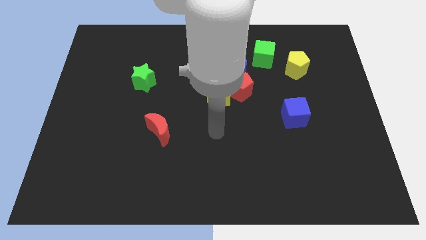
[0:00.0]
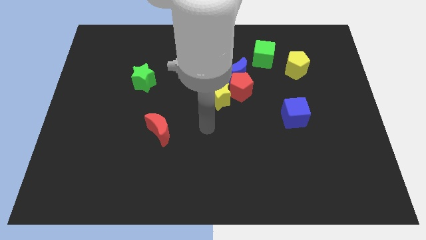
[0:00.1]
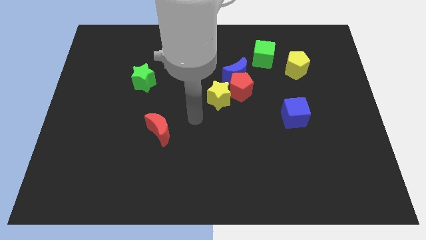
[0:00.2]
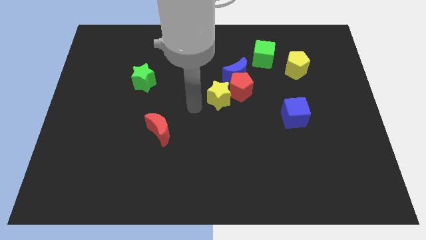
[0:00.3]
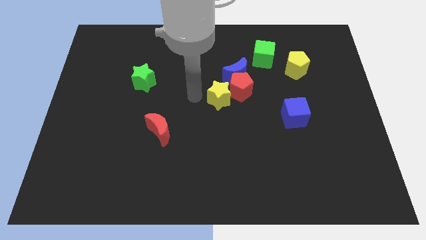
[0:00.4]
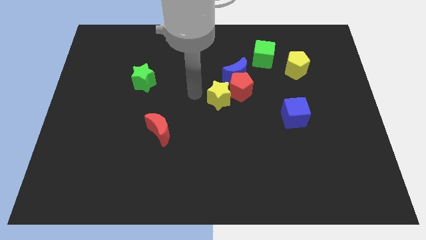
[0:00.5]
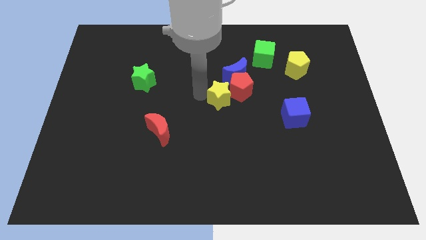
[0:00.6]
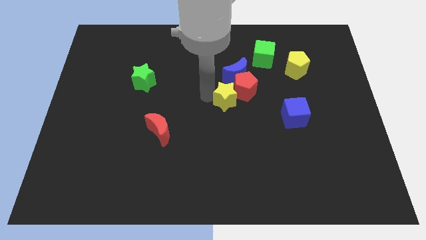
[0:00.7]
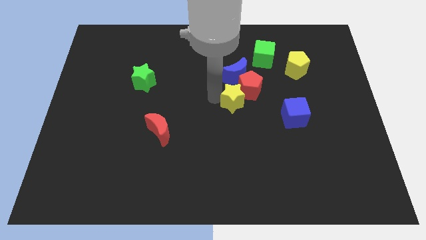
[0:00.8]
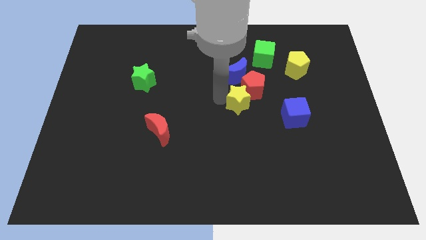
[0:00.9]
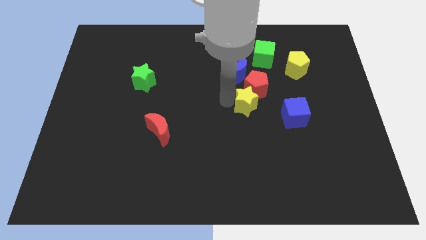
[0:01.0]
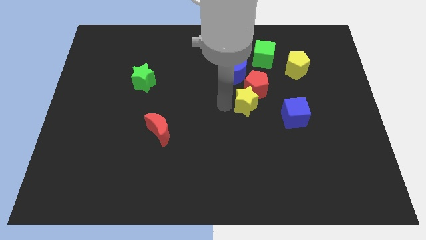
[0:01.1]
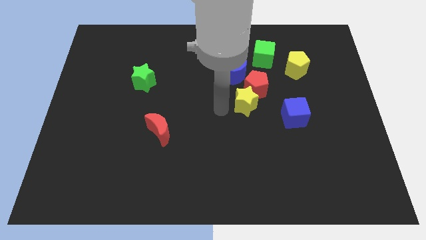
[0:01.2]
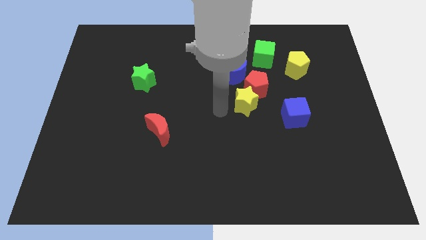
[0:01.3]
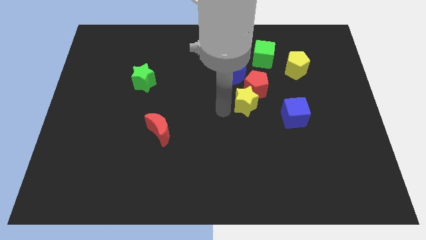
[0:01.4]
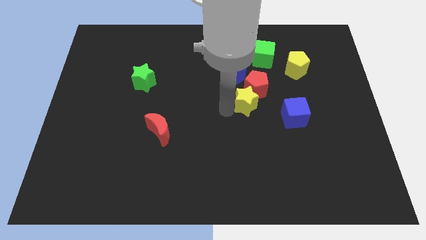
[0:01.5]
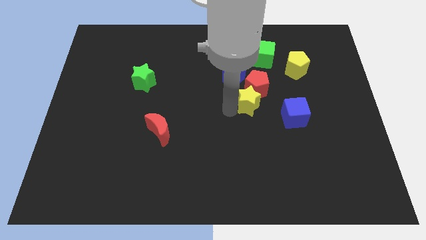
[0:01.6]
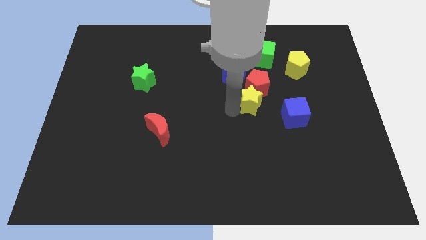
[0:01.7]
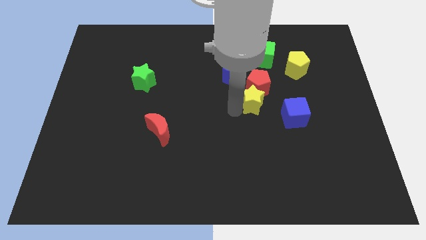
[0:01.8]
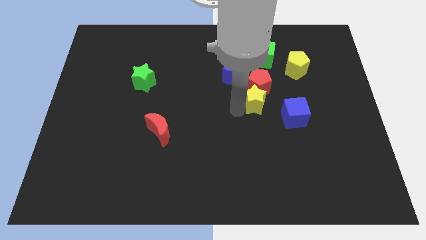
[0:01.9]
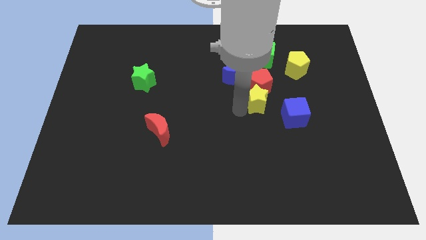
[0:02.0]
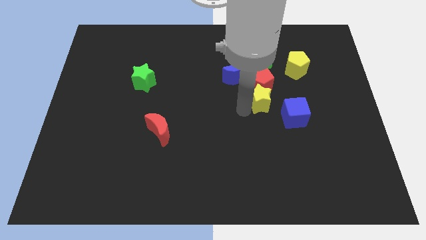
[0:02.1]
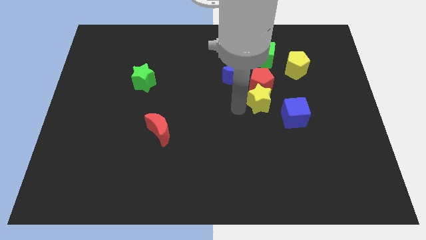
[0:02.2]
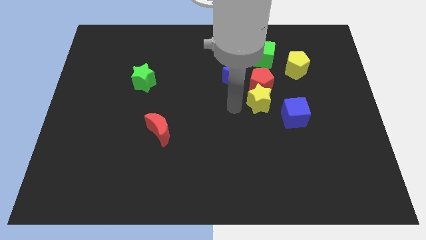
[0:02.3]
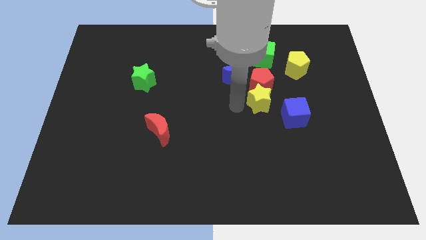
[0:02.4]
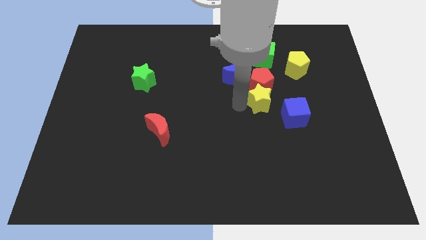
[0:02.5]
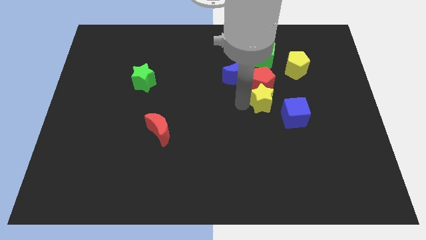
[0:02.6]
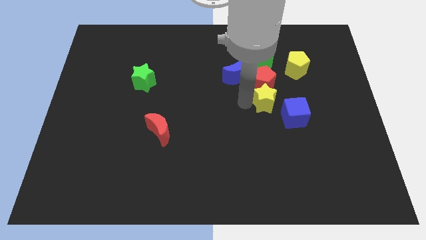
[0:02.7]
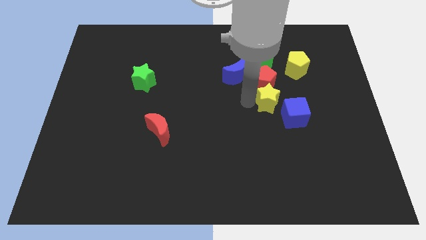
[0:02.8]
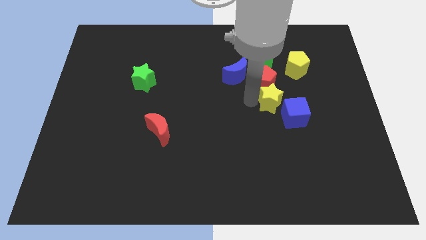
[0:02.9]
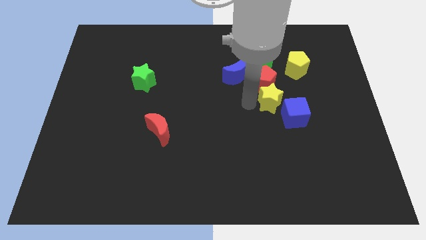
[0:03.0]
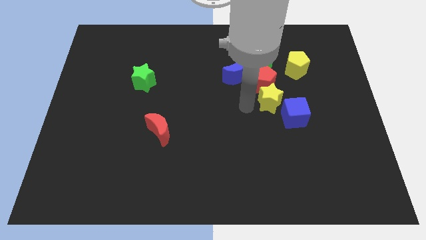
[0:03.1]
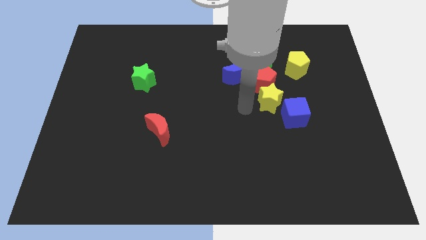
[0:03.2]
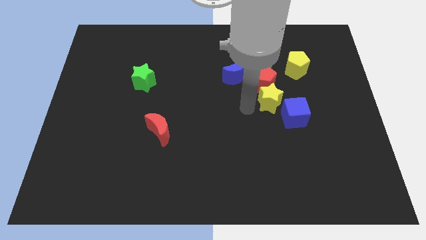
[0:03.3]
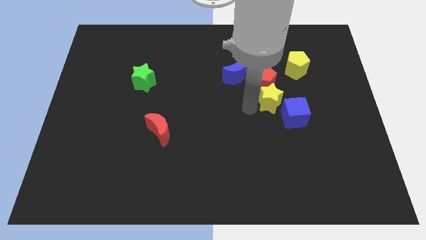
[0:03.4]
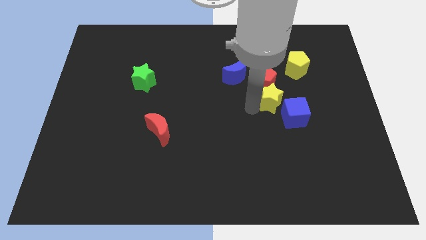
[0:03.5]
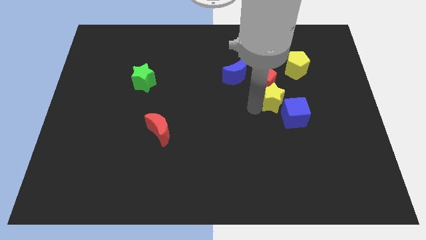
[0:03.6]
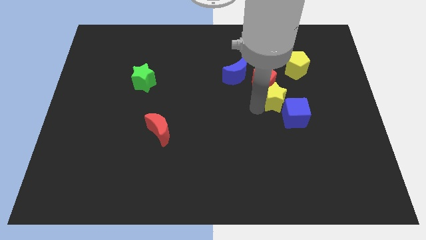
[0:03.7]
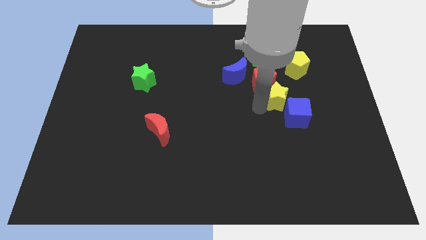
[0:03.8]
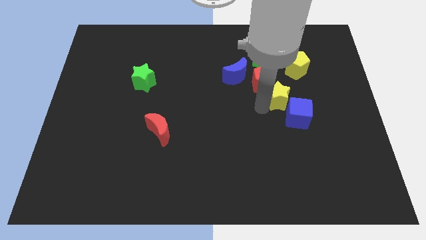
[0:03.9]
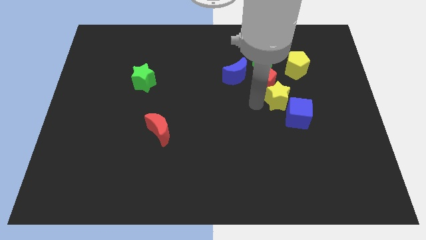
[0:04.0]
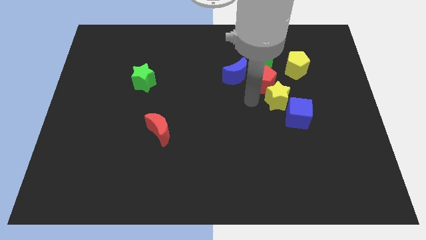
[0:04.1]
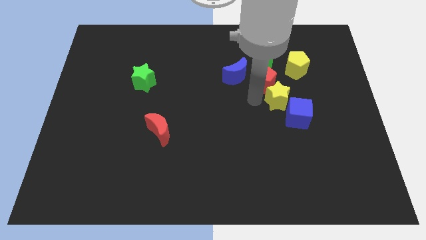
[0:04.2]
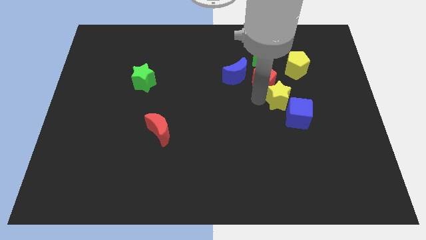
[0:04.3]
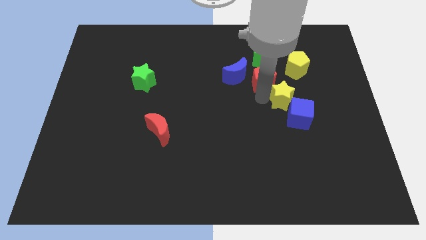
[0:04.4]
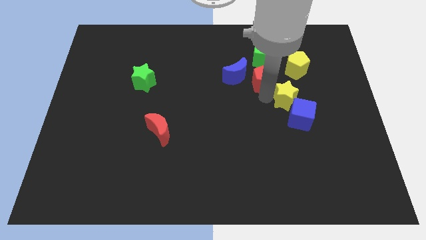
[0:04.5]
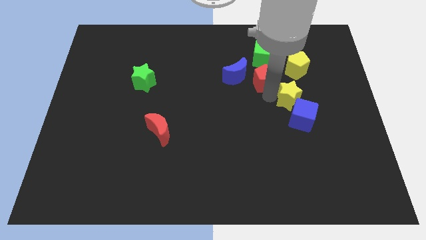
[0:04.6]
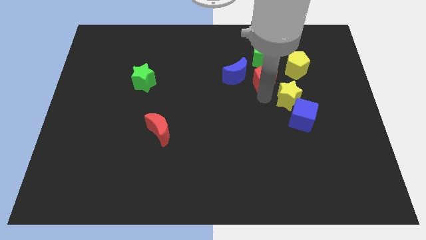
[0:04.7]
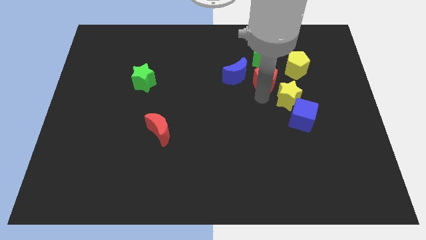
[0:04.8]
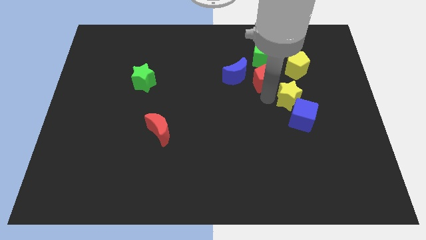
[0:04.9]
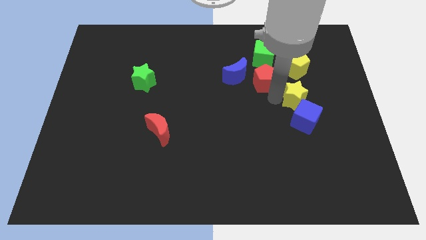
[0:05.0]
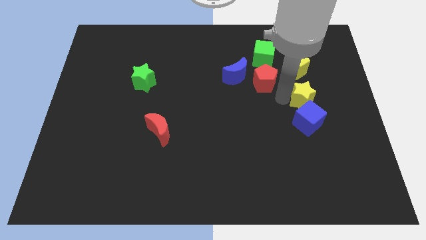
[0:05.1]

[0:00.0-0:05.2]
slide the yellow star diagonally up and to the right of the blue cube

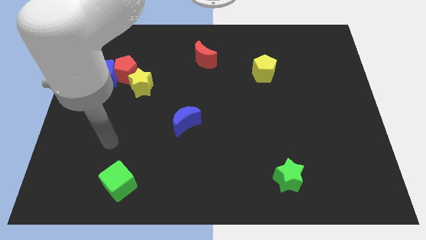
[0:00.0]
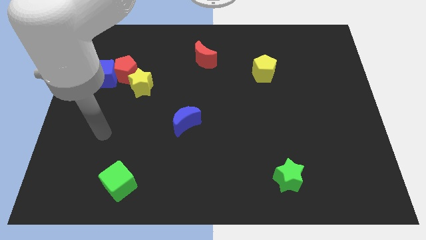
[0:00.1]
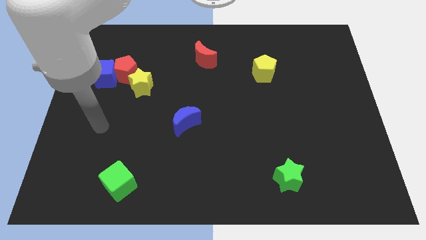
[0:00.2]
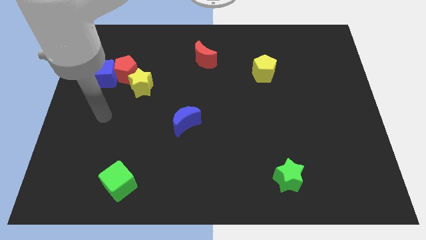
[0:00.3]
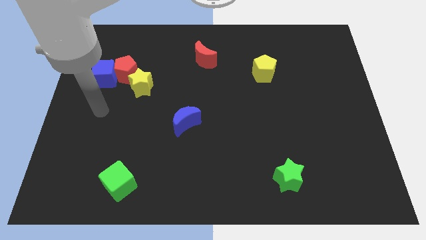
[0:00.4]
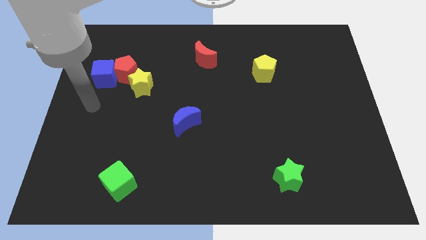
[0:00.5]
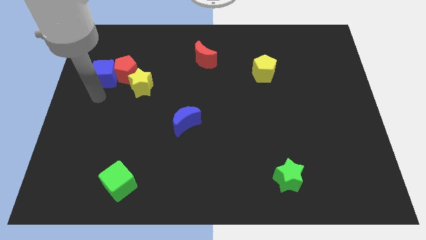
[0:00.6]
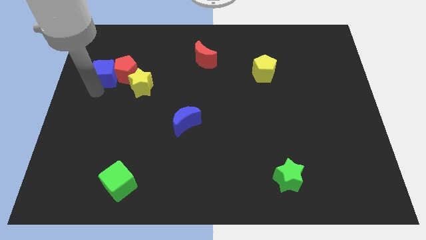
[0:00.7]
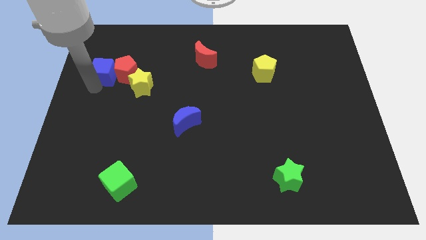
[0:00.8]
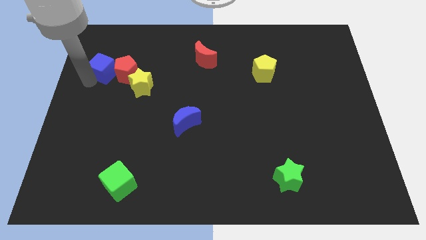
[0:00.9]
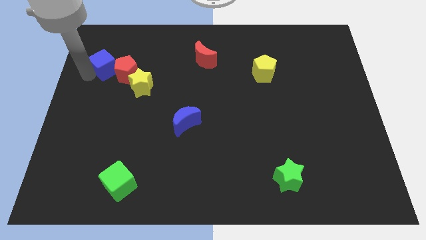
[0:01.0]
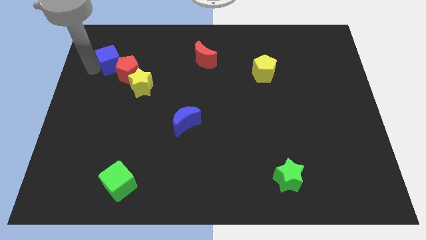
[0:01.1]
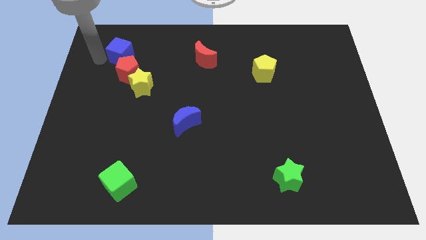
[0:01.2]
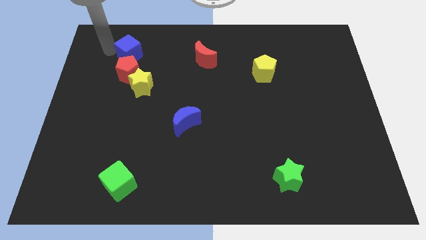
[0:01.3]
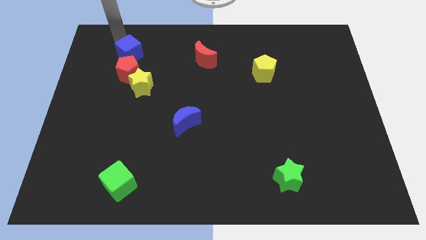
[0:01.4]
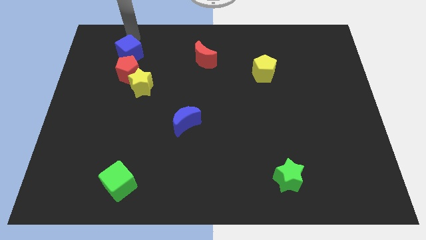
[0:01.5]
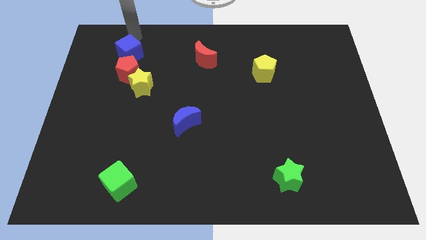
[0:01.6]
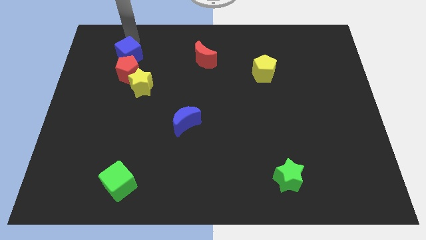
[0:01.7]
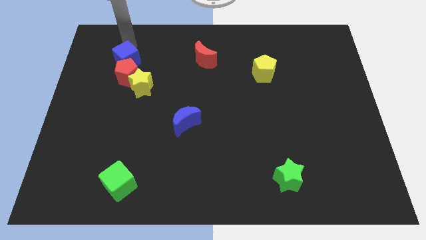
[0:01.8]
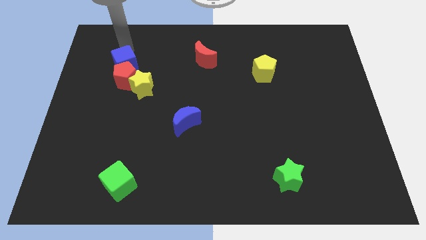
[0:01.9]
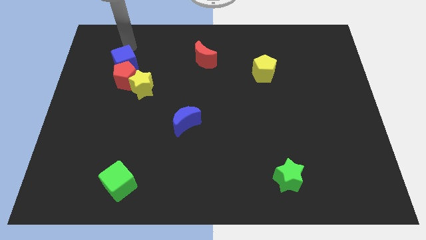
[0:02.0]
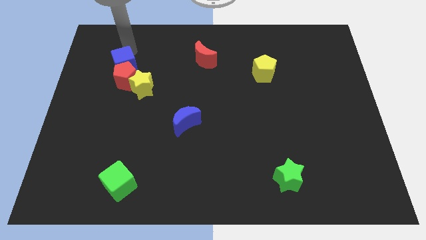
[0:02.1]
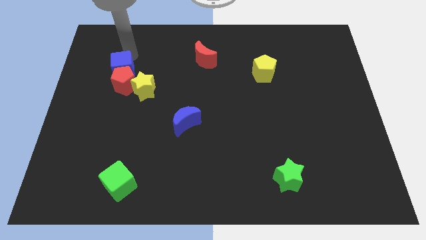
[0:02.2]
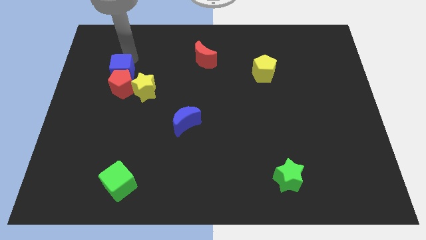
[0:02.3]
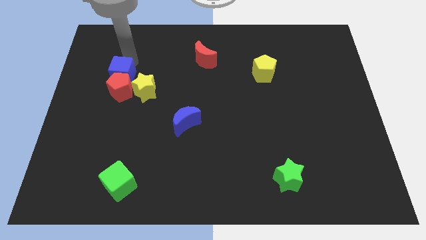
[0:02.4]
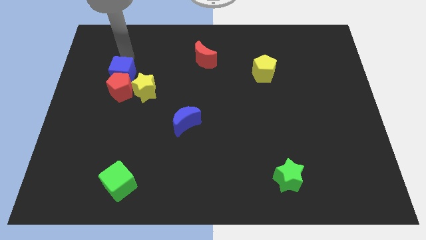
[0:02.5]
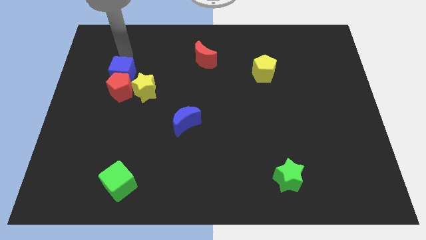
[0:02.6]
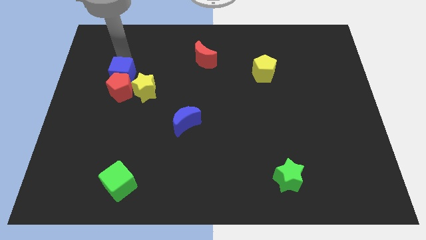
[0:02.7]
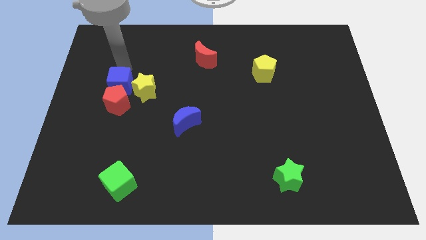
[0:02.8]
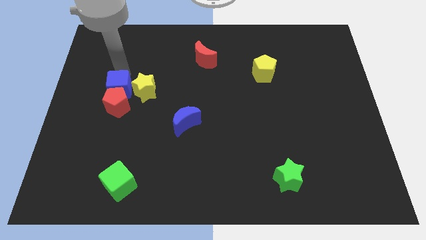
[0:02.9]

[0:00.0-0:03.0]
move the blue cube to the bottom left of the yellow star

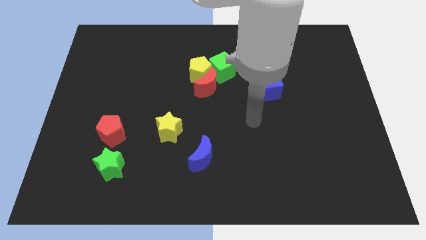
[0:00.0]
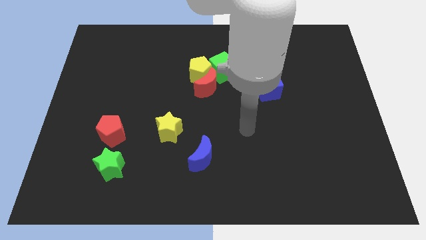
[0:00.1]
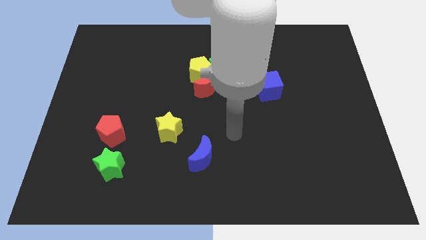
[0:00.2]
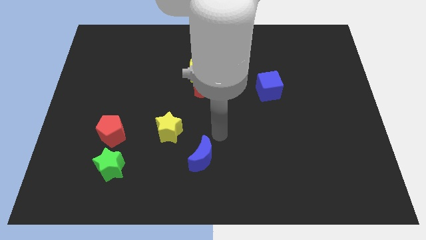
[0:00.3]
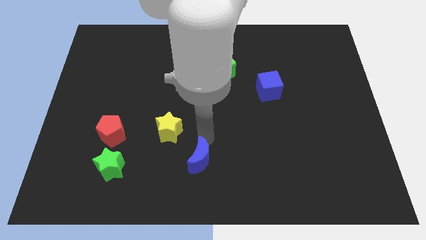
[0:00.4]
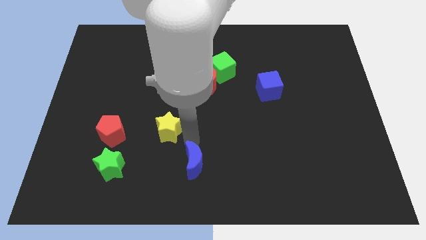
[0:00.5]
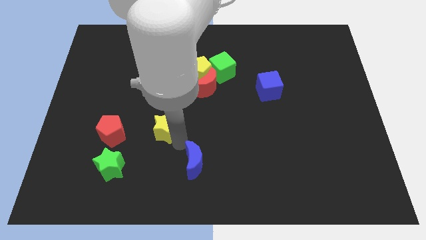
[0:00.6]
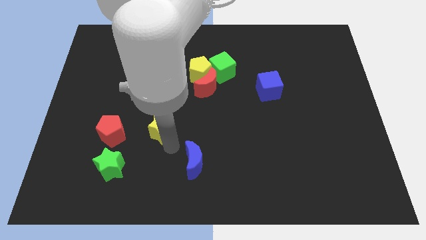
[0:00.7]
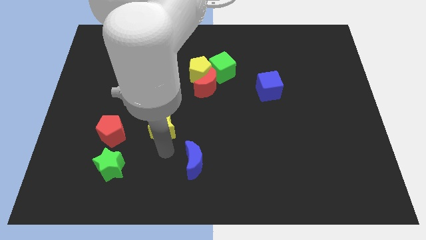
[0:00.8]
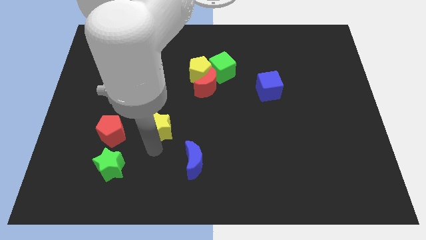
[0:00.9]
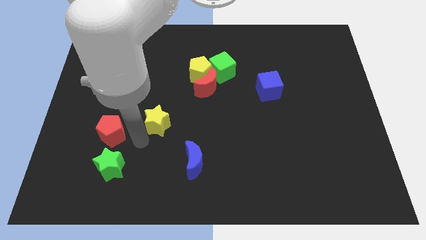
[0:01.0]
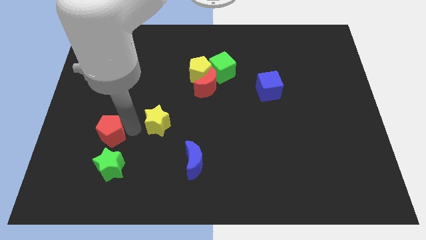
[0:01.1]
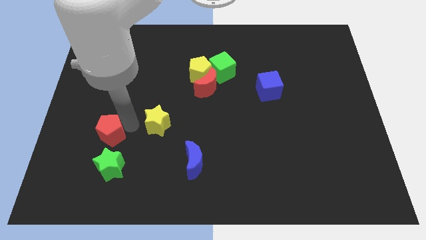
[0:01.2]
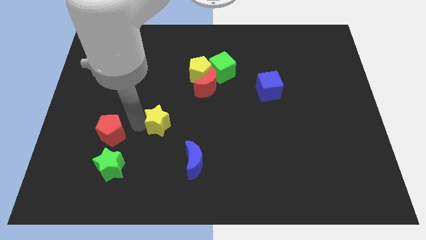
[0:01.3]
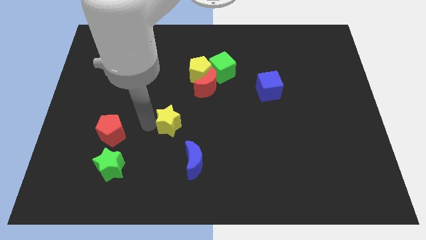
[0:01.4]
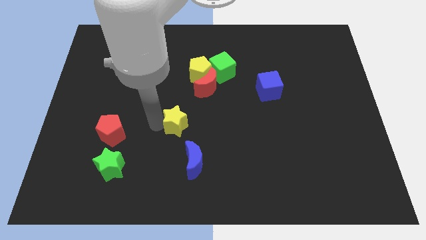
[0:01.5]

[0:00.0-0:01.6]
slide the yellow star above the blue moon
